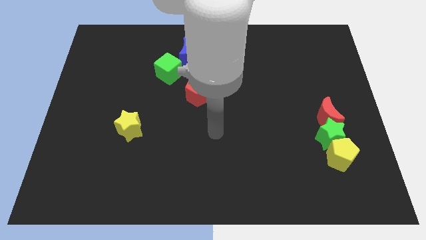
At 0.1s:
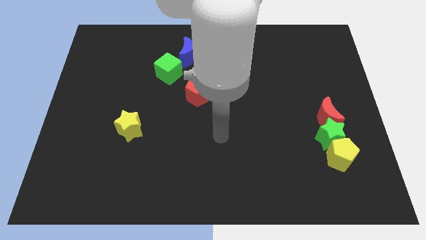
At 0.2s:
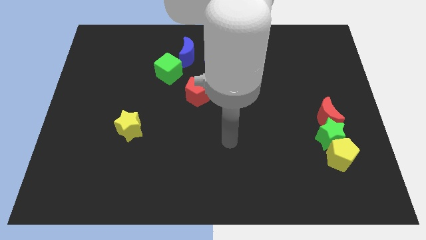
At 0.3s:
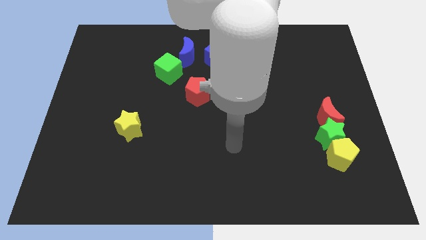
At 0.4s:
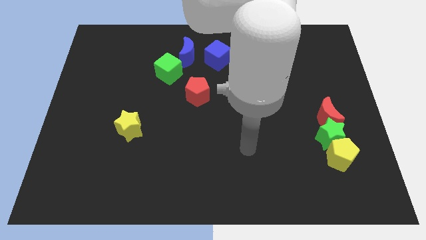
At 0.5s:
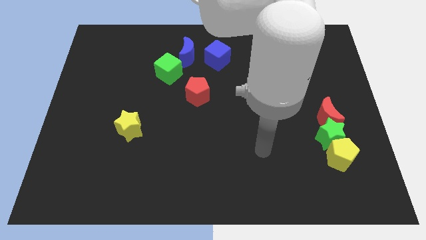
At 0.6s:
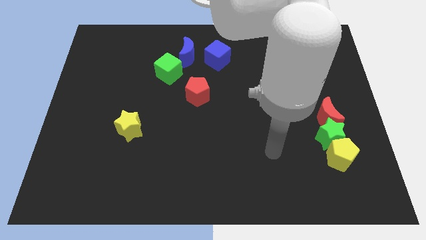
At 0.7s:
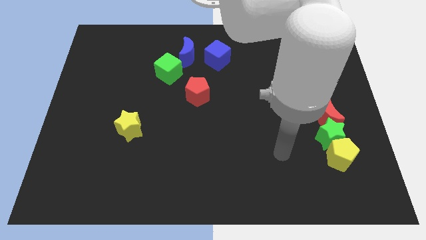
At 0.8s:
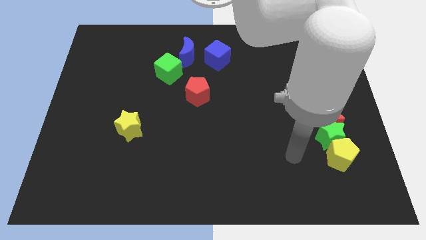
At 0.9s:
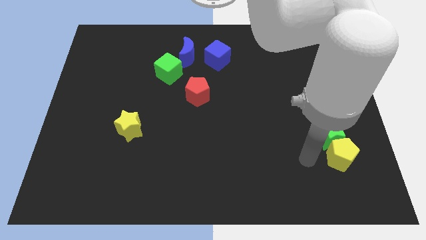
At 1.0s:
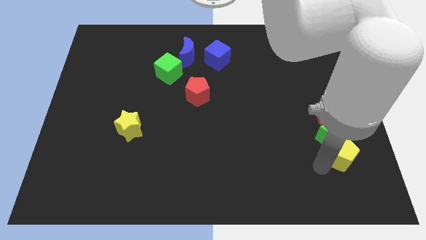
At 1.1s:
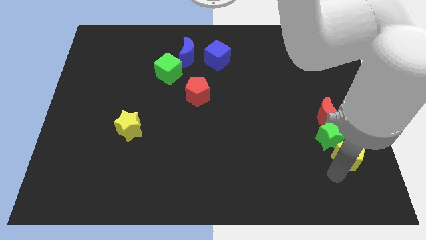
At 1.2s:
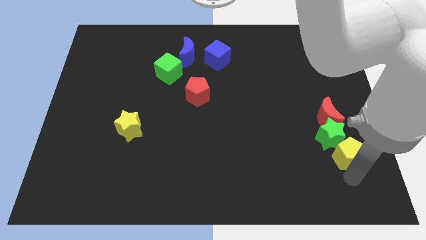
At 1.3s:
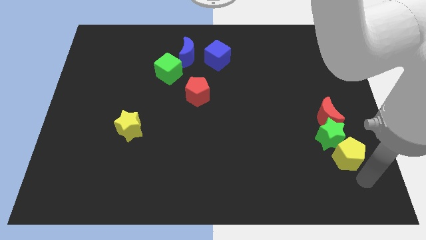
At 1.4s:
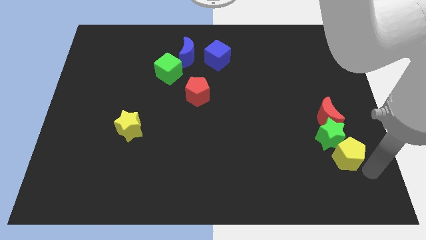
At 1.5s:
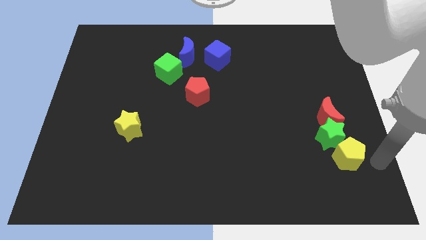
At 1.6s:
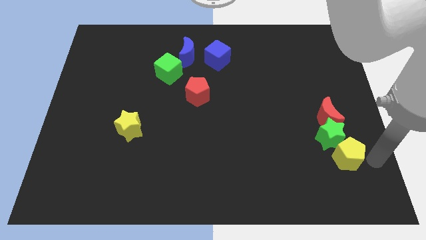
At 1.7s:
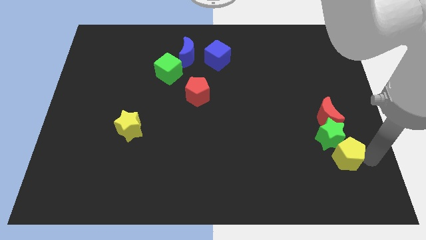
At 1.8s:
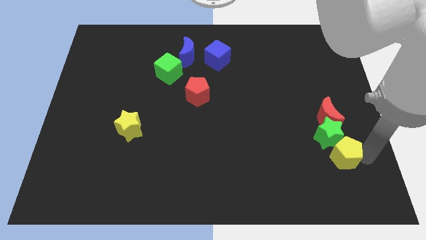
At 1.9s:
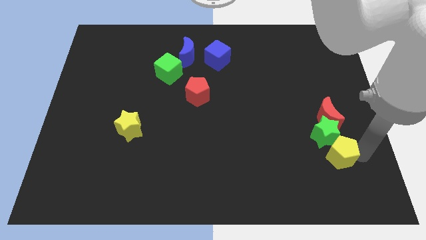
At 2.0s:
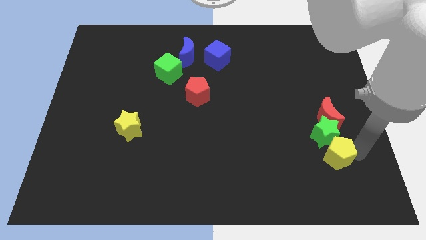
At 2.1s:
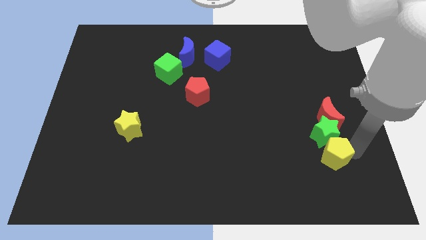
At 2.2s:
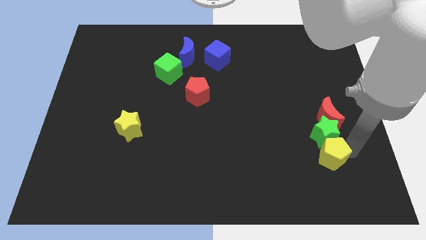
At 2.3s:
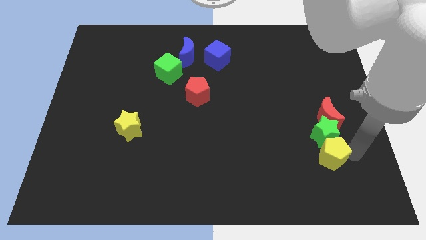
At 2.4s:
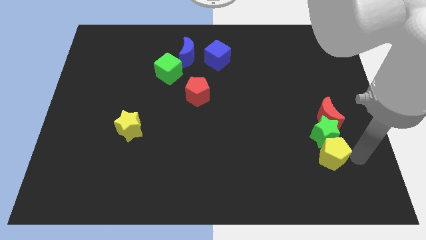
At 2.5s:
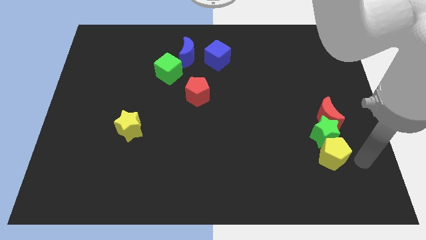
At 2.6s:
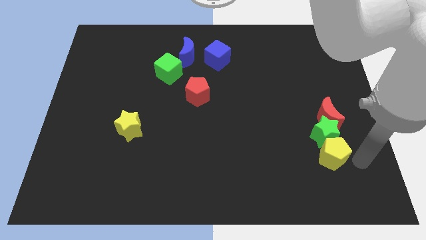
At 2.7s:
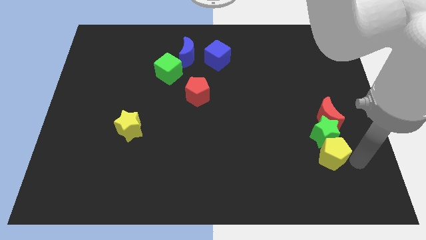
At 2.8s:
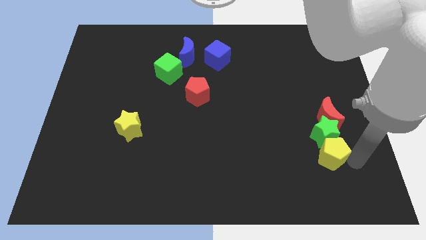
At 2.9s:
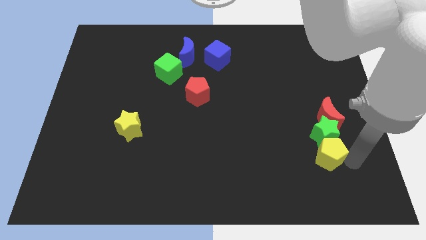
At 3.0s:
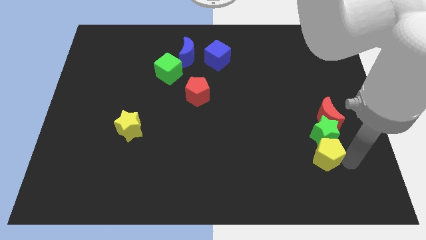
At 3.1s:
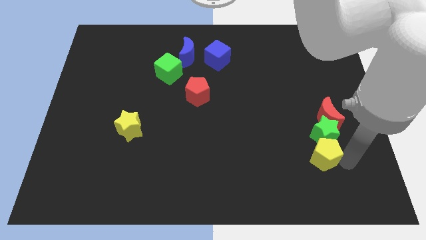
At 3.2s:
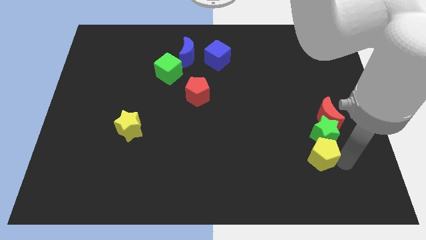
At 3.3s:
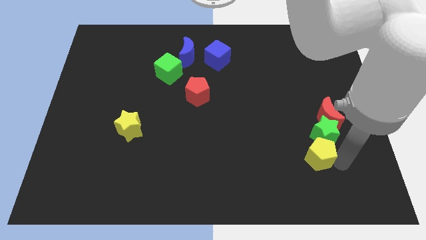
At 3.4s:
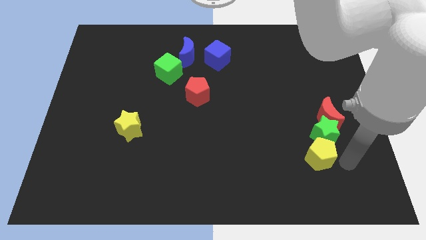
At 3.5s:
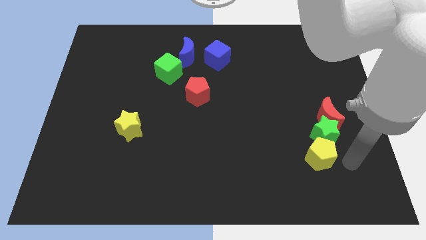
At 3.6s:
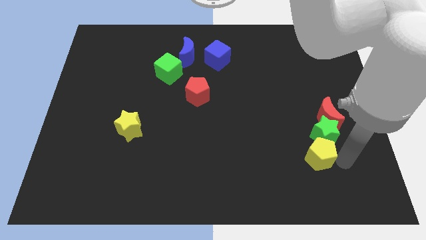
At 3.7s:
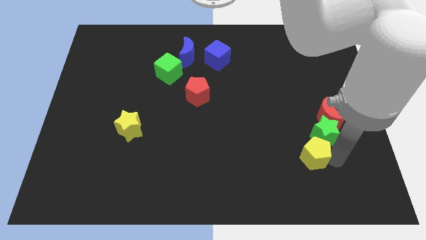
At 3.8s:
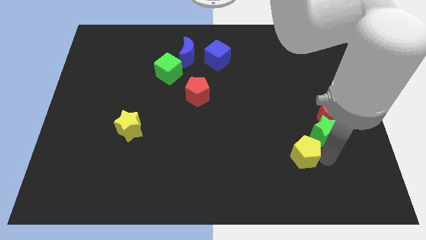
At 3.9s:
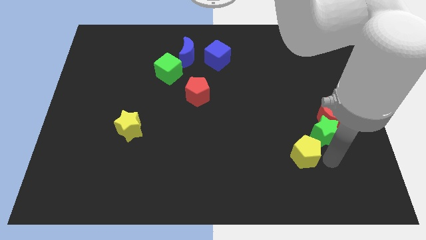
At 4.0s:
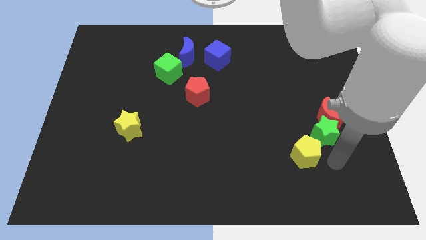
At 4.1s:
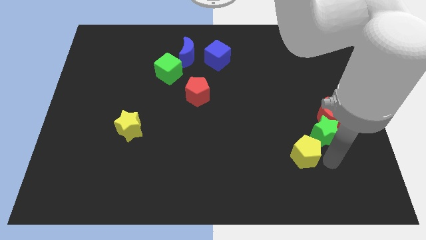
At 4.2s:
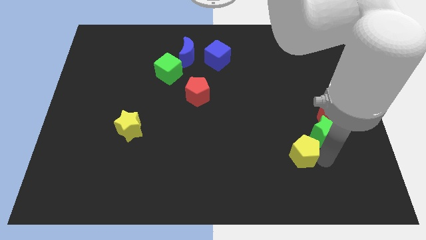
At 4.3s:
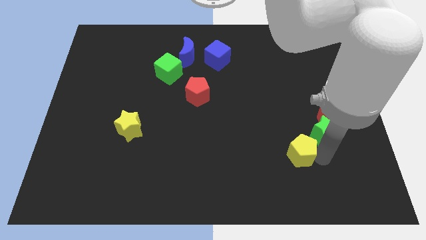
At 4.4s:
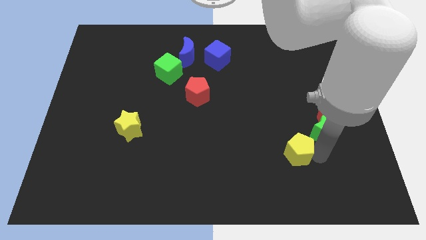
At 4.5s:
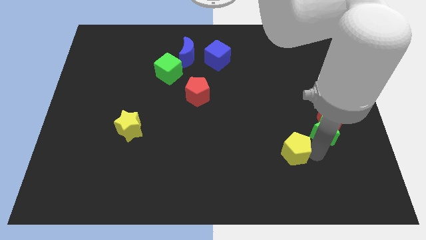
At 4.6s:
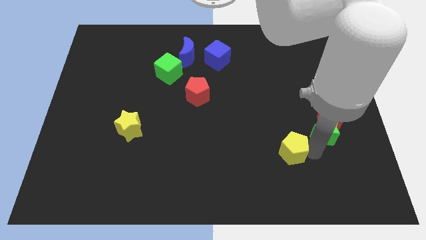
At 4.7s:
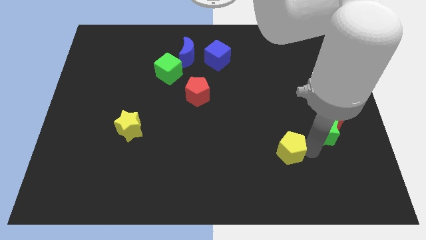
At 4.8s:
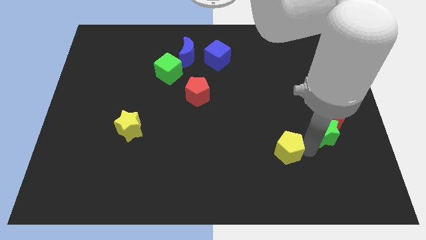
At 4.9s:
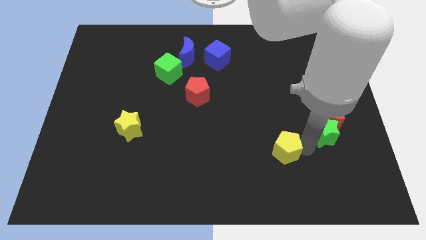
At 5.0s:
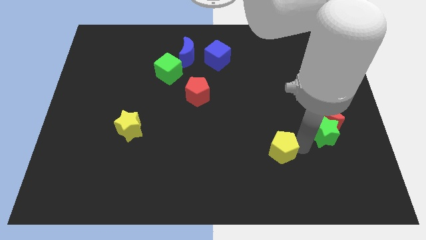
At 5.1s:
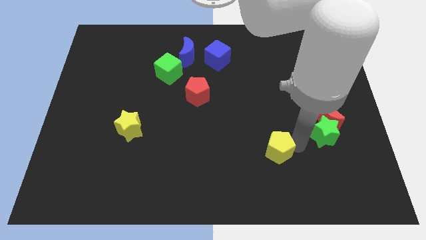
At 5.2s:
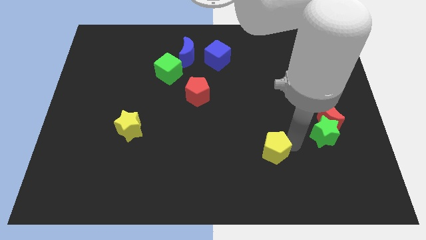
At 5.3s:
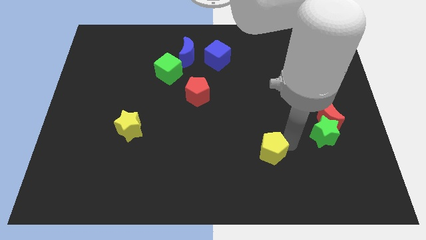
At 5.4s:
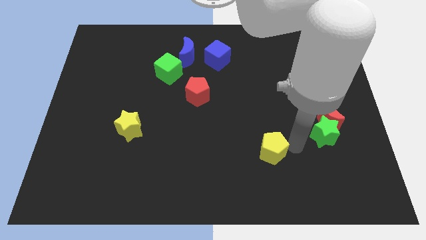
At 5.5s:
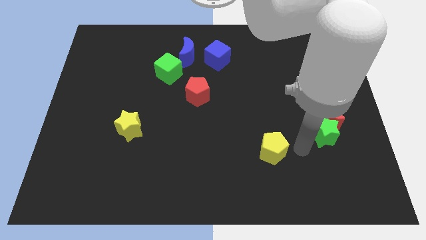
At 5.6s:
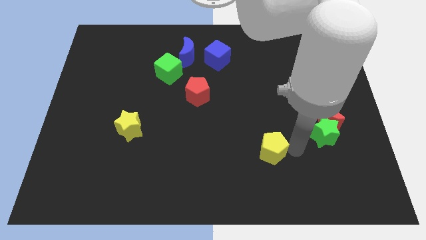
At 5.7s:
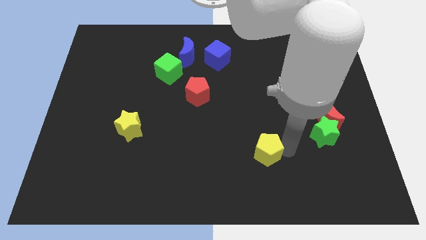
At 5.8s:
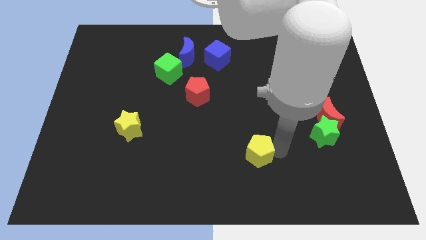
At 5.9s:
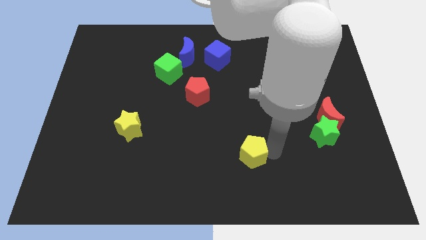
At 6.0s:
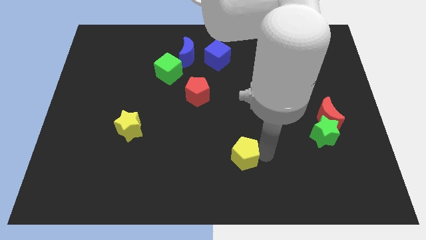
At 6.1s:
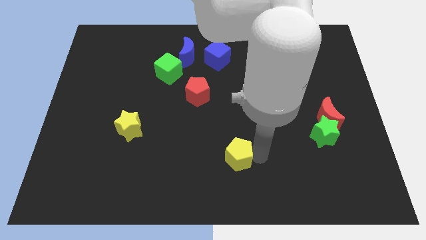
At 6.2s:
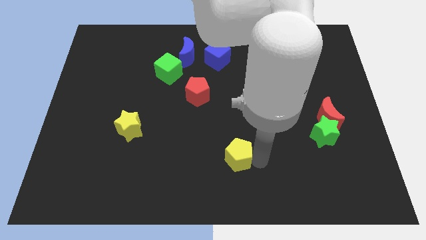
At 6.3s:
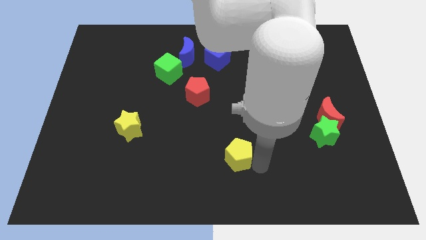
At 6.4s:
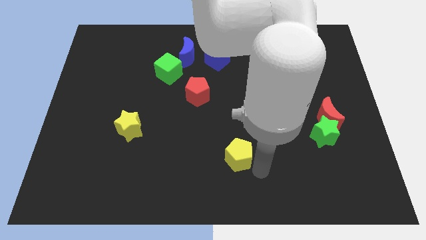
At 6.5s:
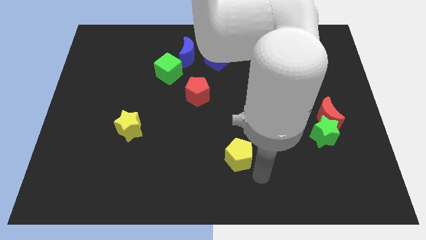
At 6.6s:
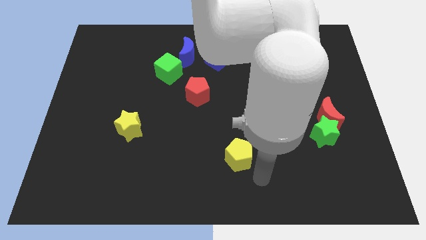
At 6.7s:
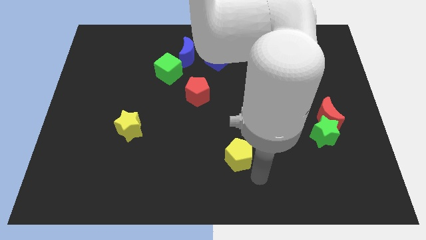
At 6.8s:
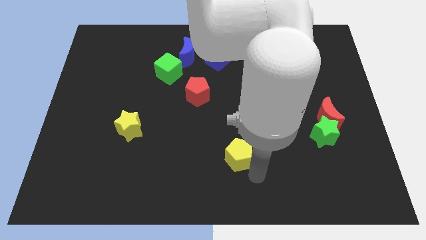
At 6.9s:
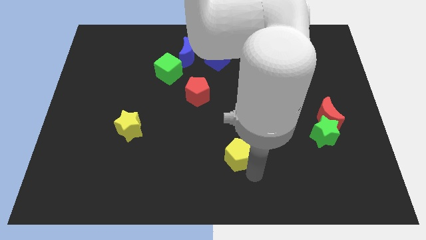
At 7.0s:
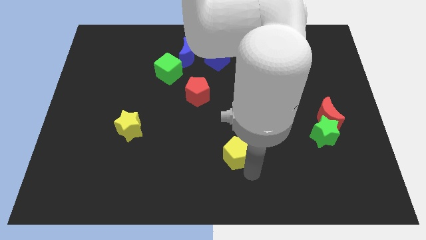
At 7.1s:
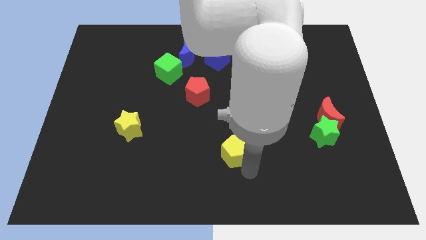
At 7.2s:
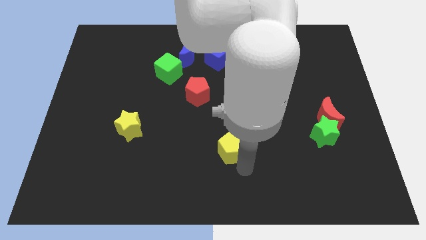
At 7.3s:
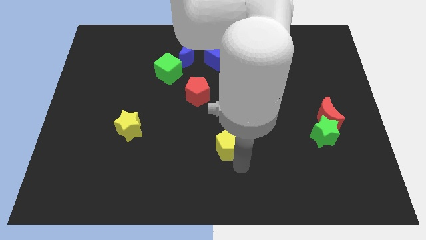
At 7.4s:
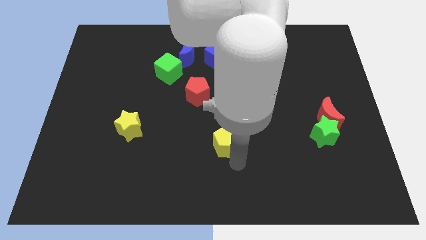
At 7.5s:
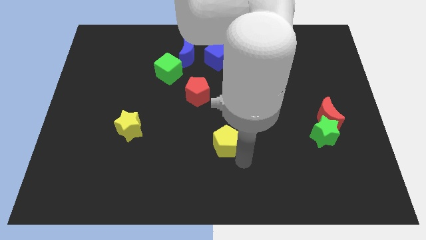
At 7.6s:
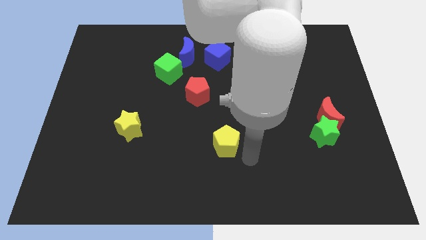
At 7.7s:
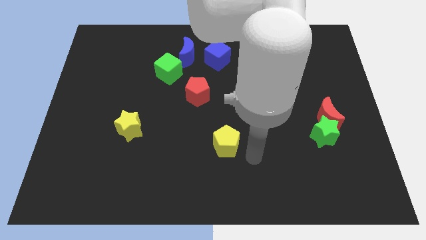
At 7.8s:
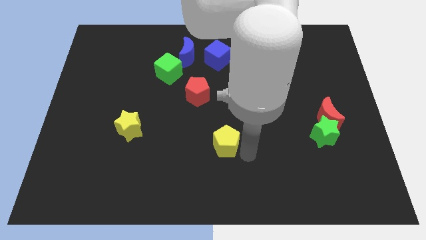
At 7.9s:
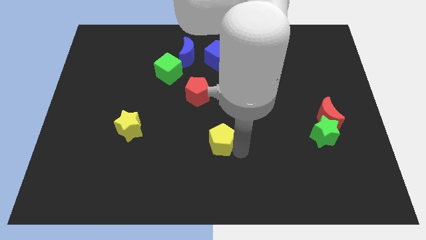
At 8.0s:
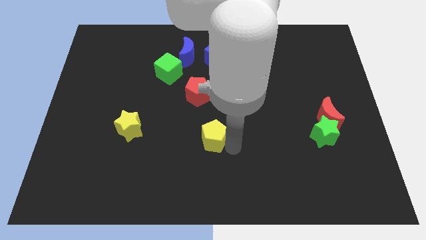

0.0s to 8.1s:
push the yellow pentagon to the bottom of the red pentagon
